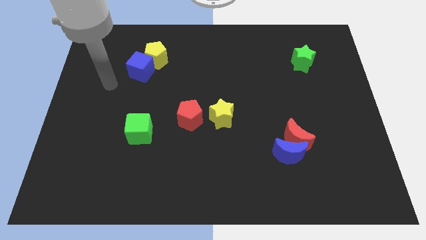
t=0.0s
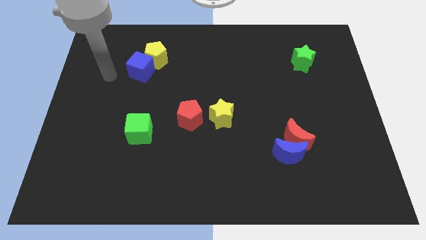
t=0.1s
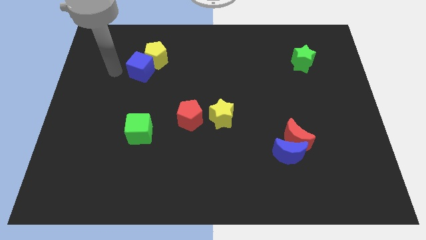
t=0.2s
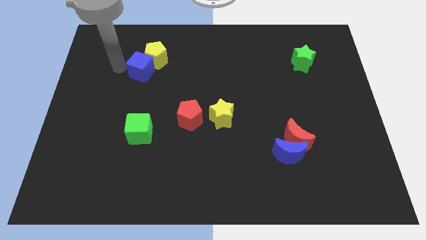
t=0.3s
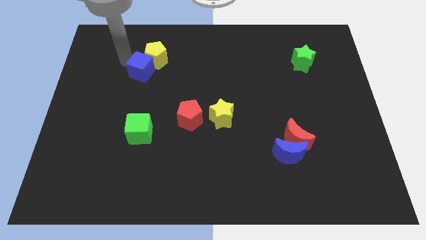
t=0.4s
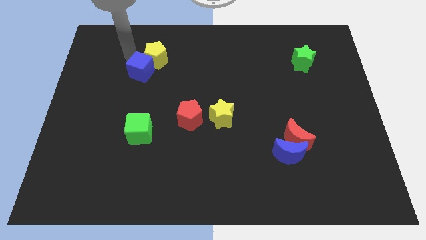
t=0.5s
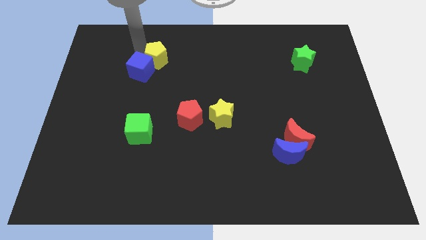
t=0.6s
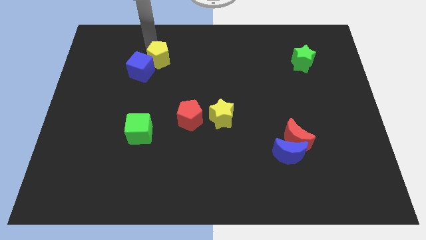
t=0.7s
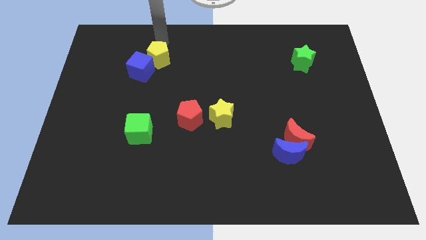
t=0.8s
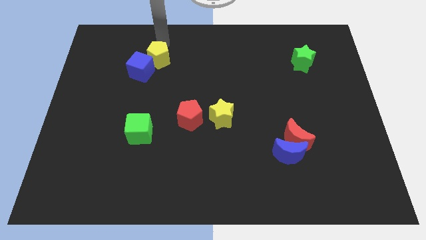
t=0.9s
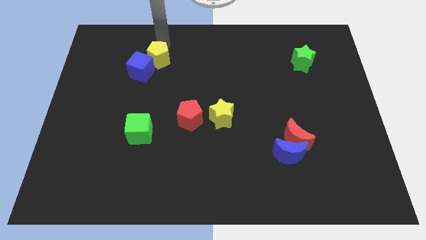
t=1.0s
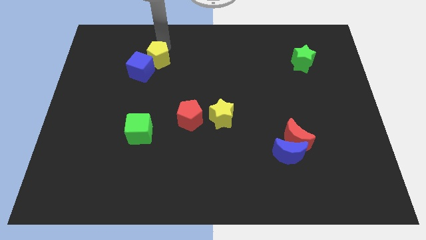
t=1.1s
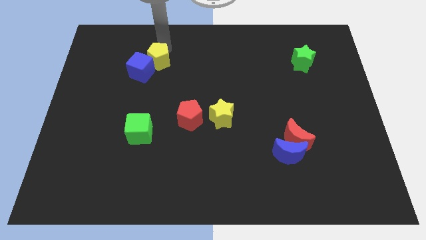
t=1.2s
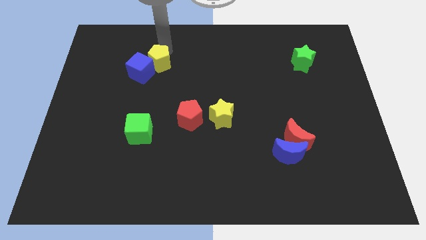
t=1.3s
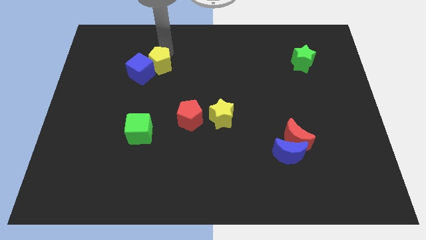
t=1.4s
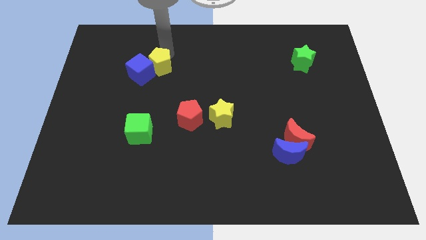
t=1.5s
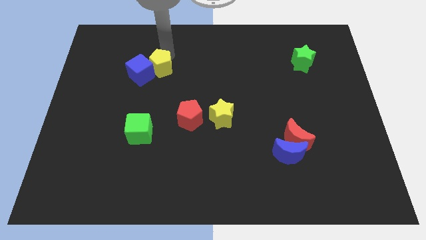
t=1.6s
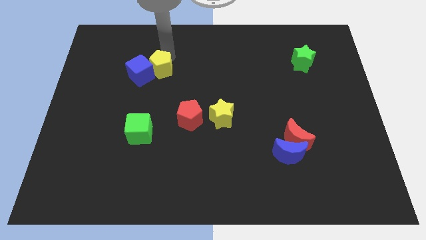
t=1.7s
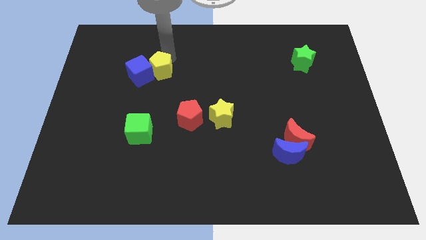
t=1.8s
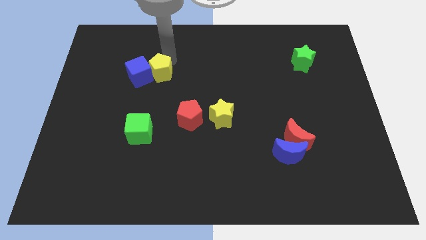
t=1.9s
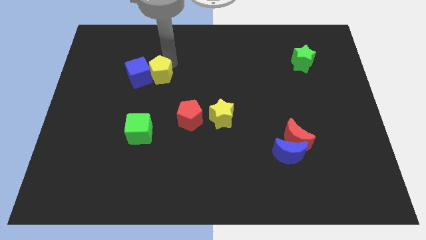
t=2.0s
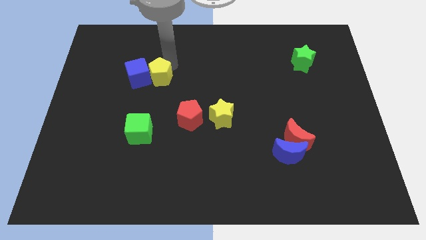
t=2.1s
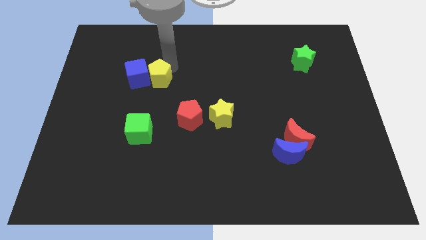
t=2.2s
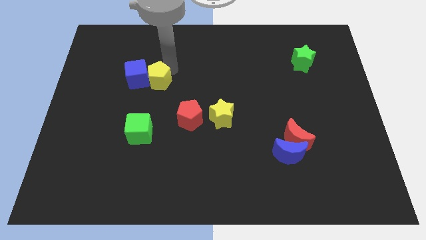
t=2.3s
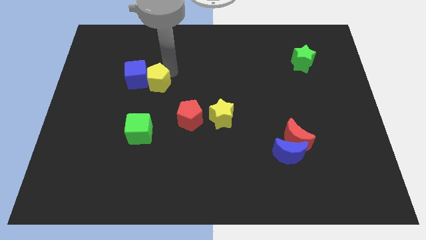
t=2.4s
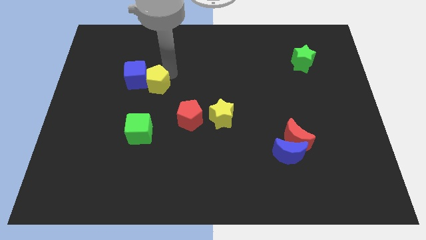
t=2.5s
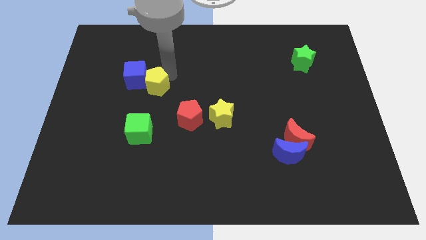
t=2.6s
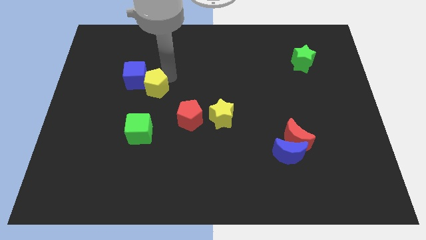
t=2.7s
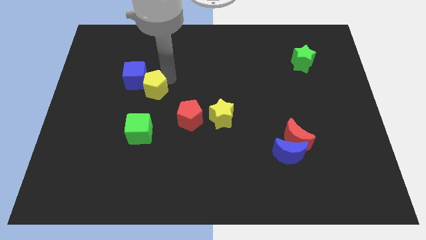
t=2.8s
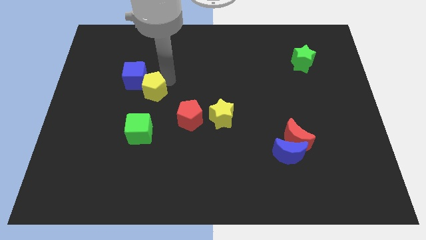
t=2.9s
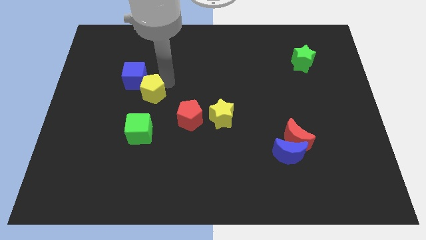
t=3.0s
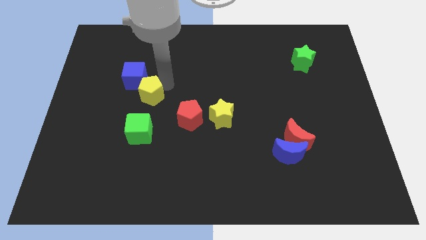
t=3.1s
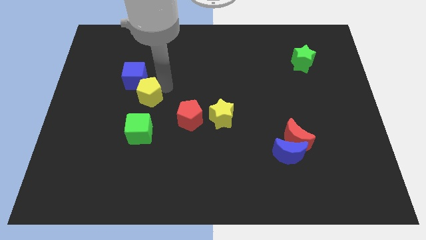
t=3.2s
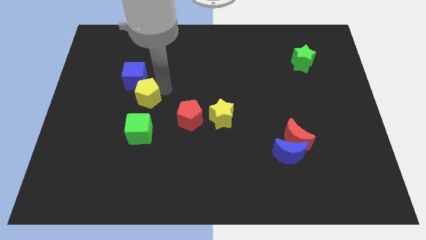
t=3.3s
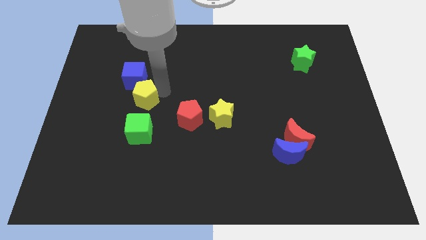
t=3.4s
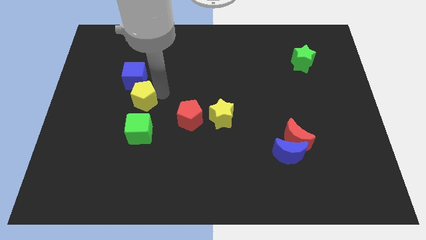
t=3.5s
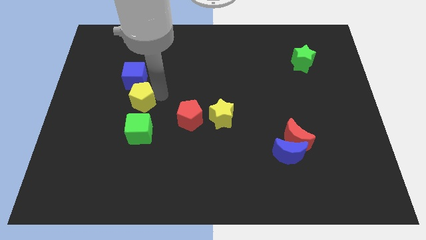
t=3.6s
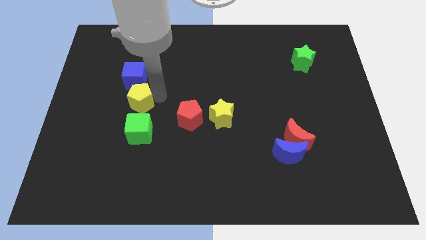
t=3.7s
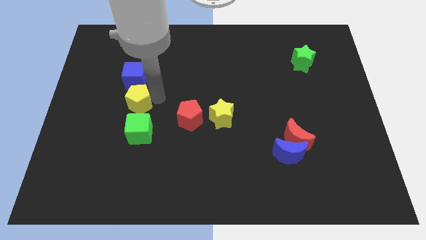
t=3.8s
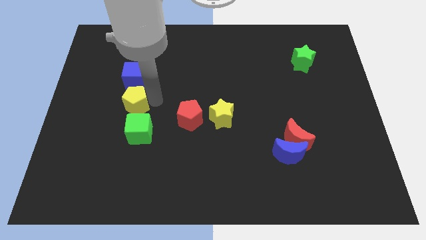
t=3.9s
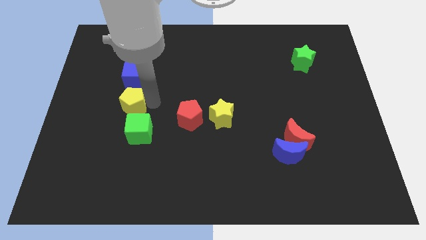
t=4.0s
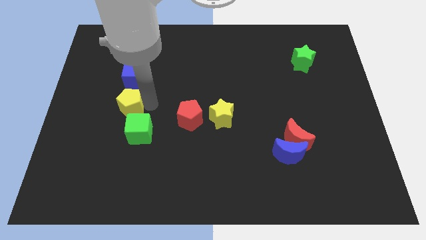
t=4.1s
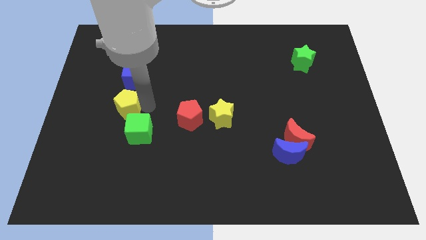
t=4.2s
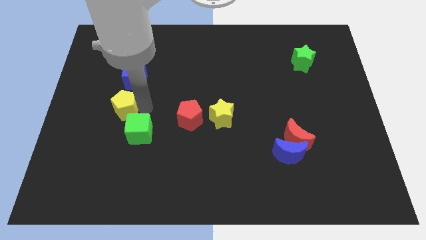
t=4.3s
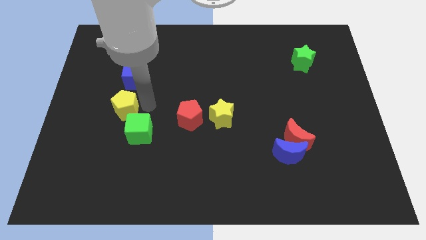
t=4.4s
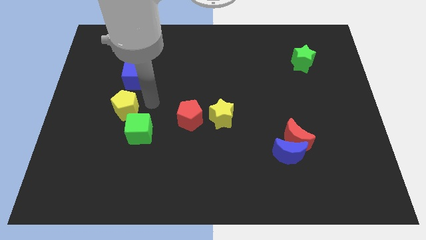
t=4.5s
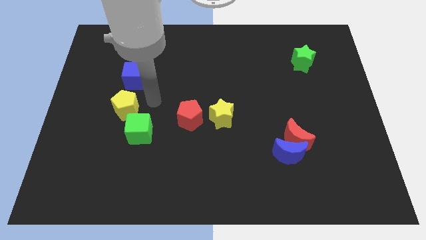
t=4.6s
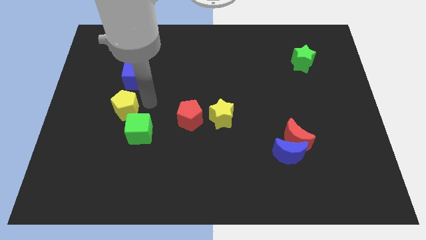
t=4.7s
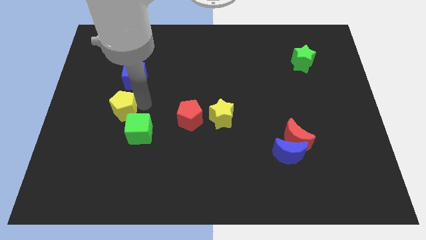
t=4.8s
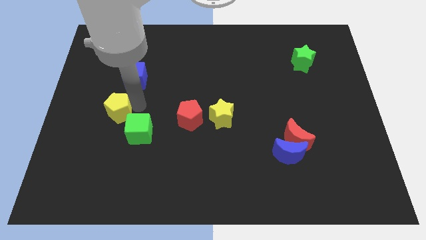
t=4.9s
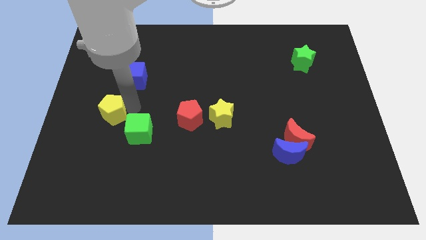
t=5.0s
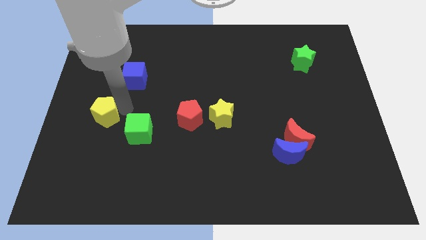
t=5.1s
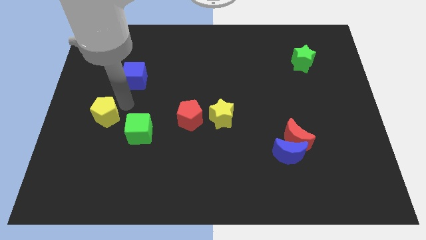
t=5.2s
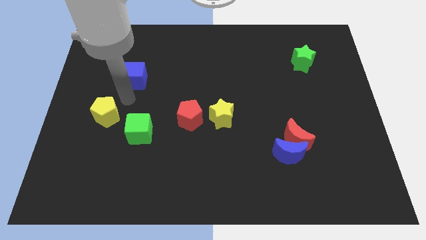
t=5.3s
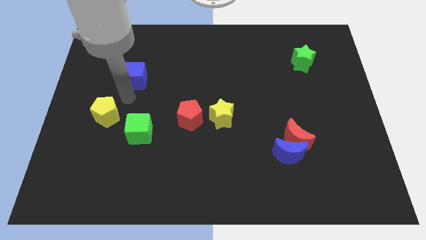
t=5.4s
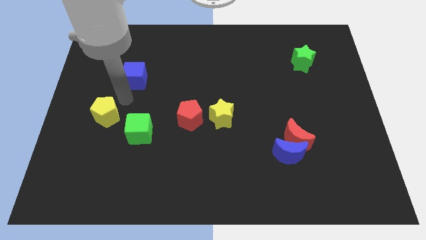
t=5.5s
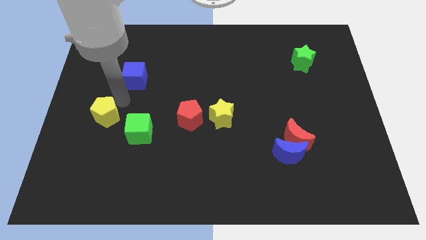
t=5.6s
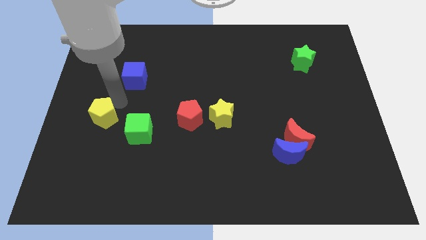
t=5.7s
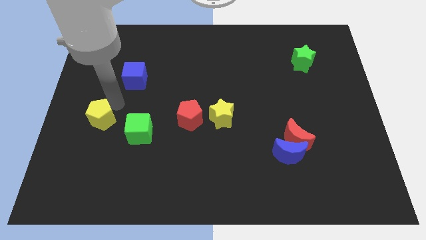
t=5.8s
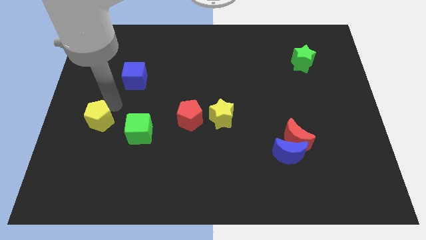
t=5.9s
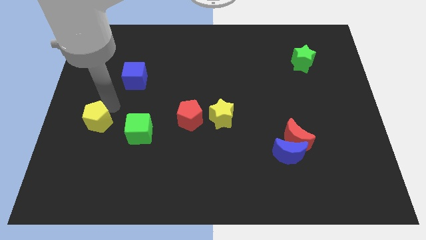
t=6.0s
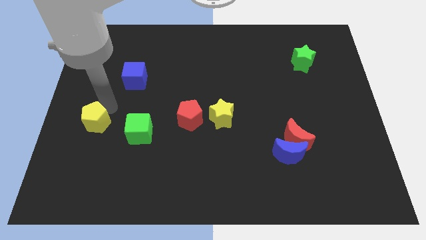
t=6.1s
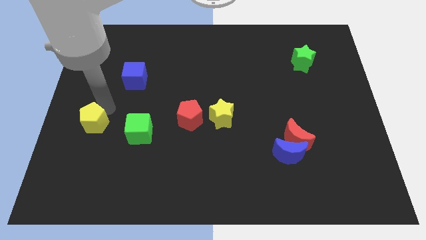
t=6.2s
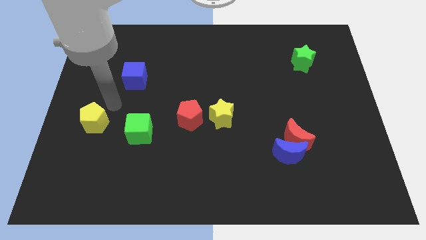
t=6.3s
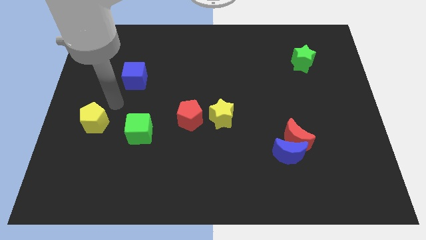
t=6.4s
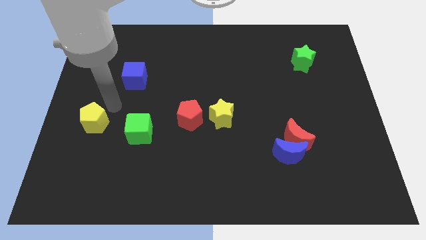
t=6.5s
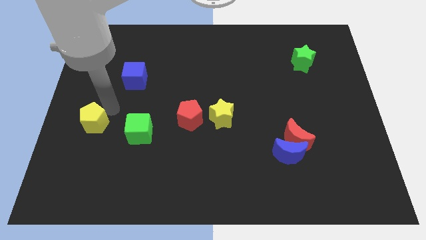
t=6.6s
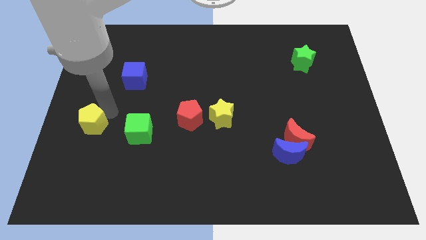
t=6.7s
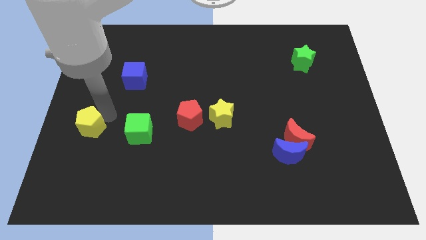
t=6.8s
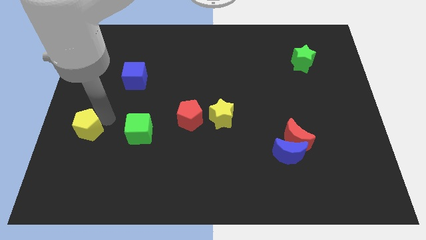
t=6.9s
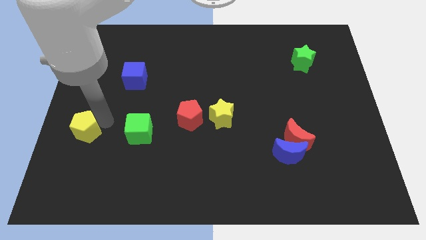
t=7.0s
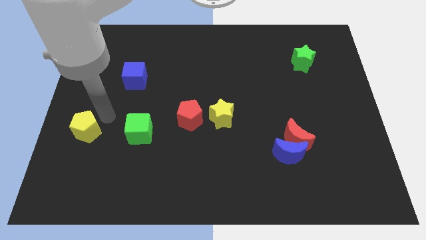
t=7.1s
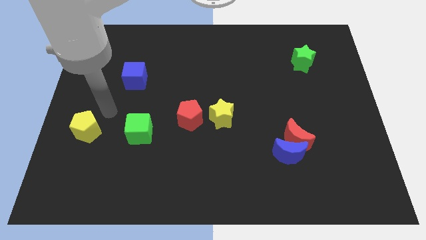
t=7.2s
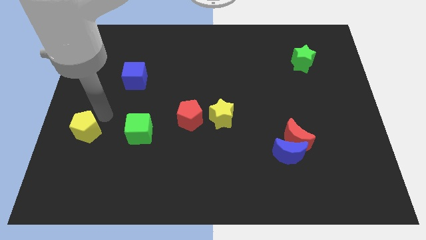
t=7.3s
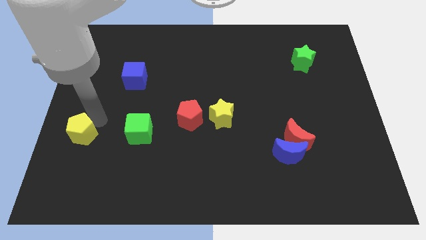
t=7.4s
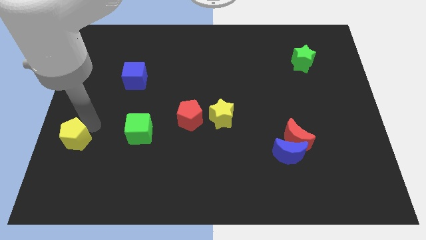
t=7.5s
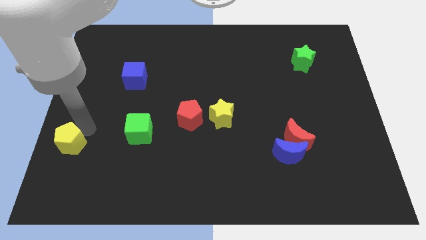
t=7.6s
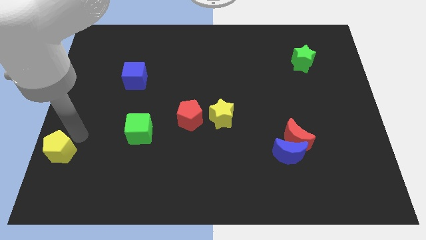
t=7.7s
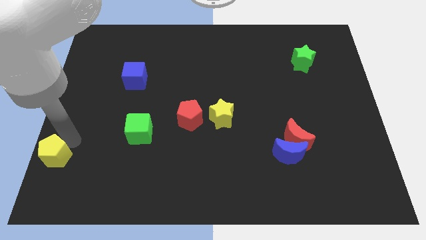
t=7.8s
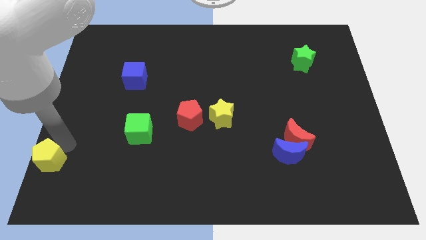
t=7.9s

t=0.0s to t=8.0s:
put the yellow pentagon to the bottom left
